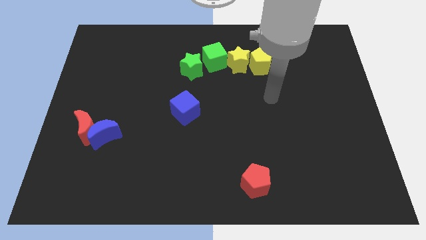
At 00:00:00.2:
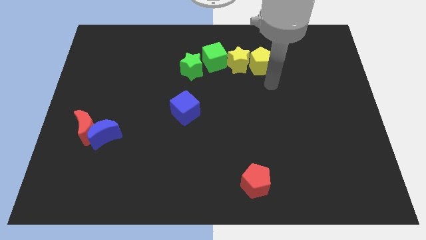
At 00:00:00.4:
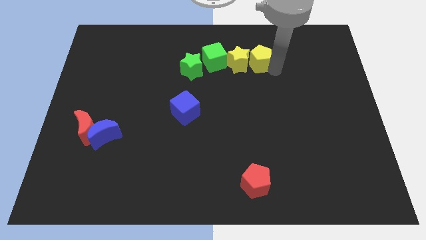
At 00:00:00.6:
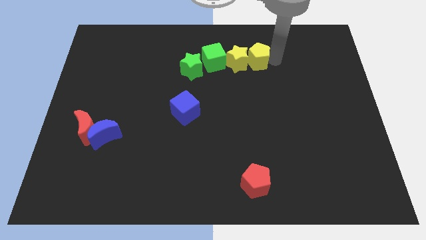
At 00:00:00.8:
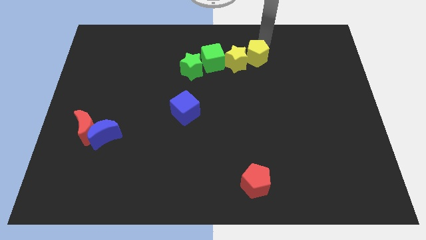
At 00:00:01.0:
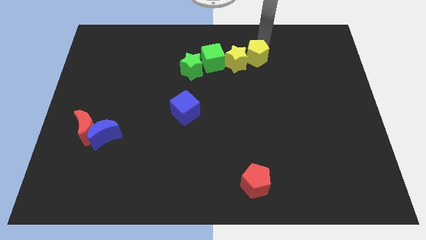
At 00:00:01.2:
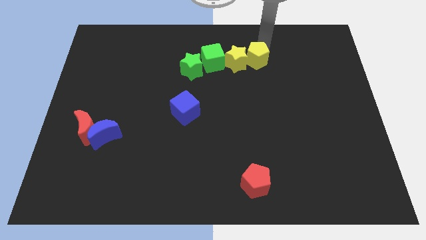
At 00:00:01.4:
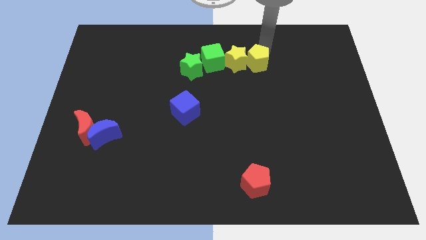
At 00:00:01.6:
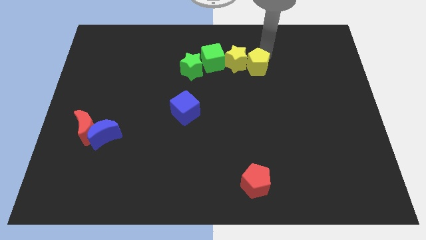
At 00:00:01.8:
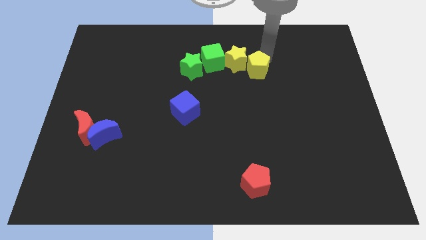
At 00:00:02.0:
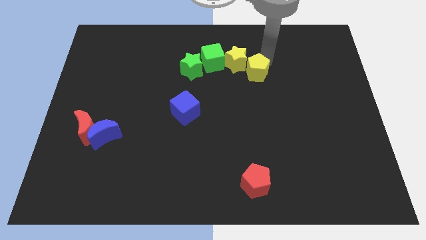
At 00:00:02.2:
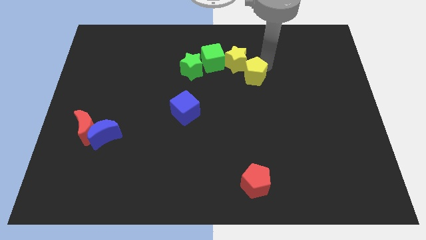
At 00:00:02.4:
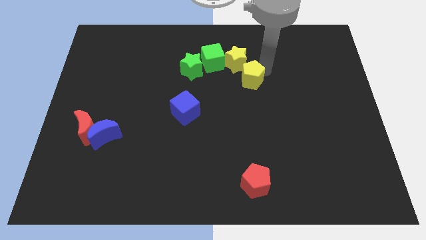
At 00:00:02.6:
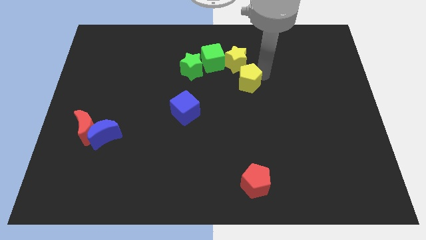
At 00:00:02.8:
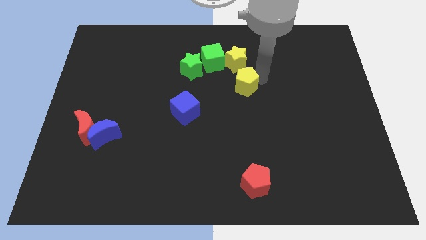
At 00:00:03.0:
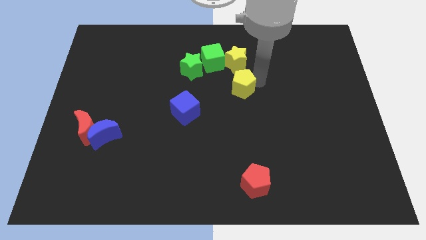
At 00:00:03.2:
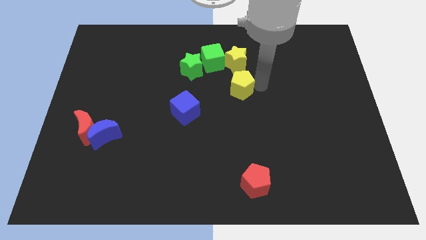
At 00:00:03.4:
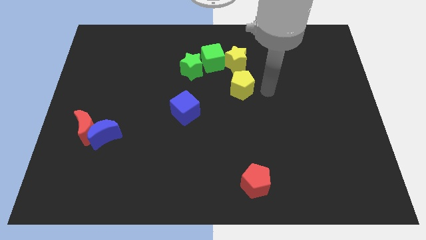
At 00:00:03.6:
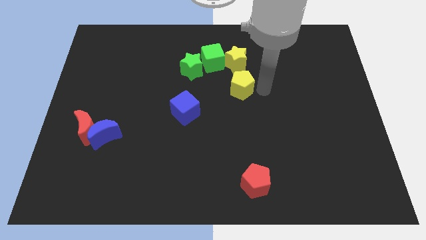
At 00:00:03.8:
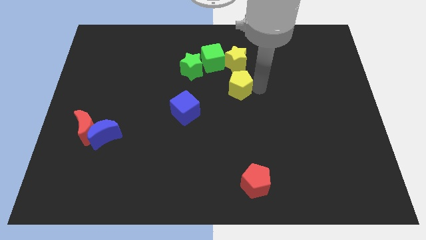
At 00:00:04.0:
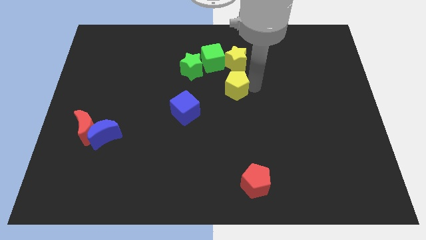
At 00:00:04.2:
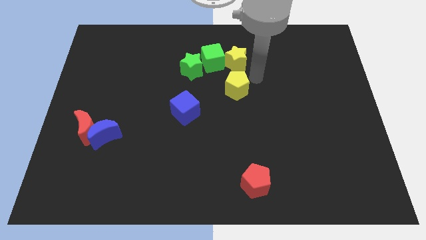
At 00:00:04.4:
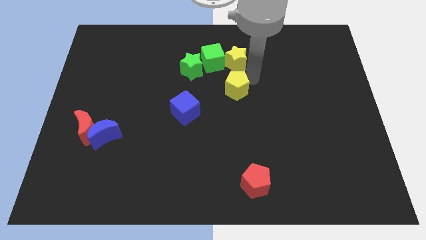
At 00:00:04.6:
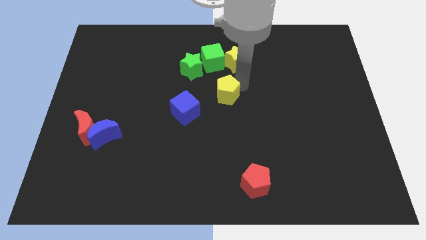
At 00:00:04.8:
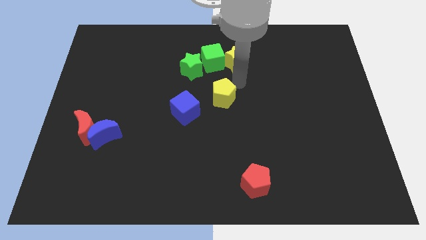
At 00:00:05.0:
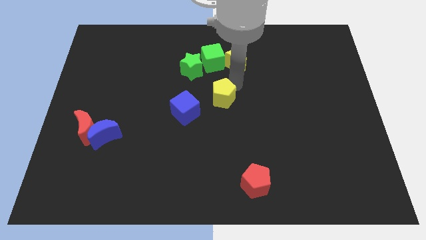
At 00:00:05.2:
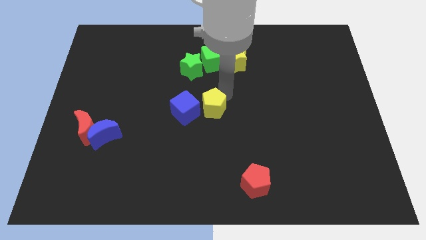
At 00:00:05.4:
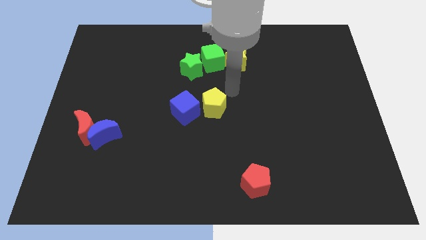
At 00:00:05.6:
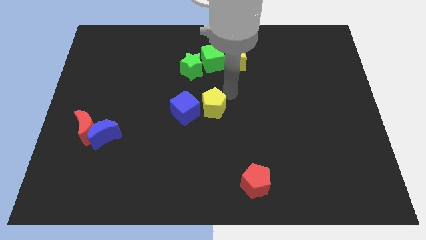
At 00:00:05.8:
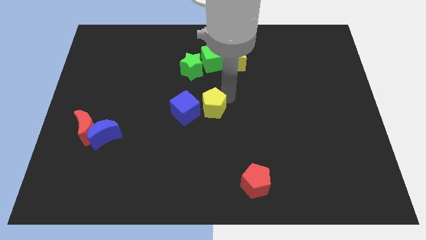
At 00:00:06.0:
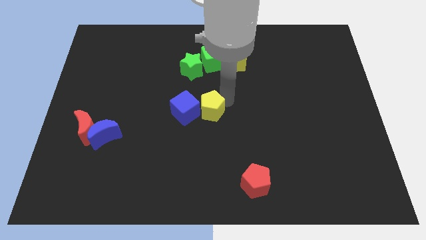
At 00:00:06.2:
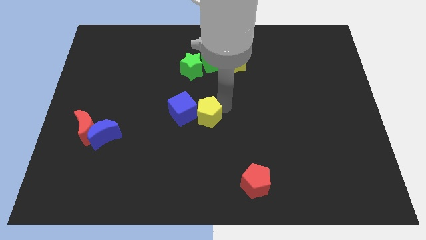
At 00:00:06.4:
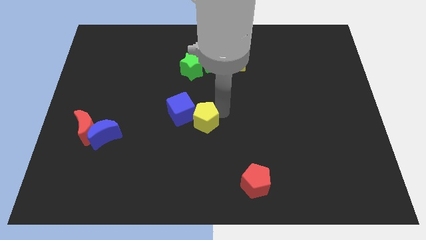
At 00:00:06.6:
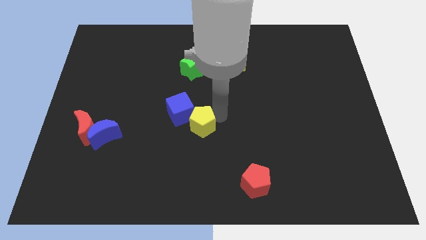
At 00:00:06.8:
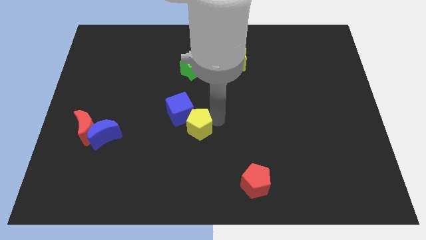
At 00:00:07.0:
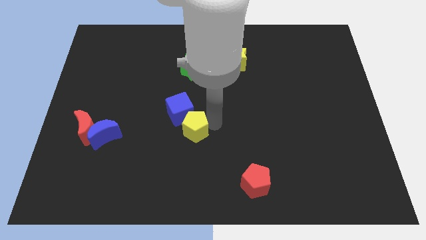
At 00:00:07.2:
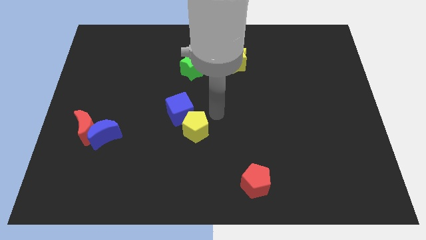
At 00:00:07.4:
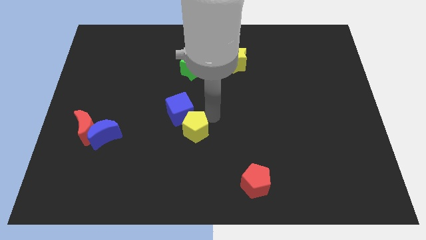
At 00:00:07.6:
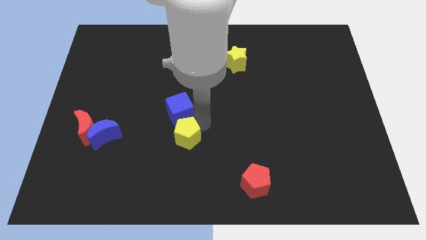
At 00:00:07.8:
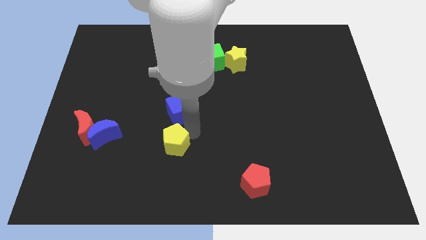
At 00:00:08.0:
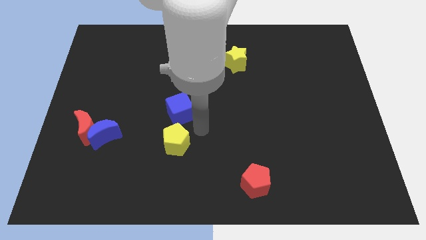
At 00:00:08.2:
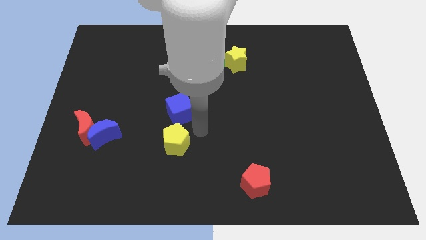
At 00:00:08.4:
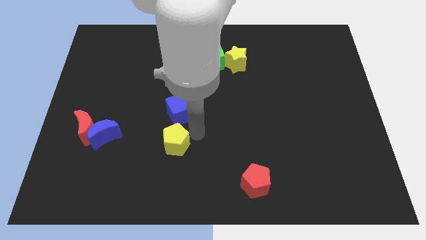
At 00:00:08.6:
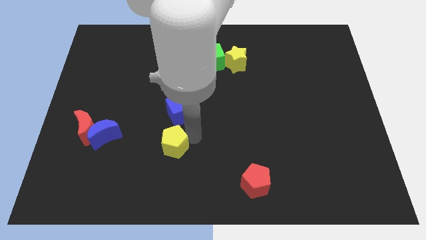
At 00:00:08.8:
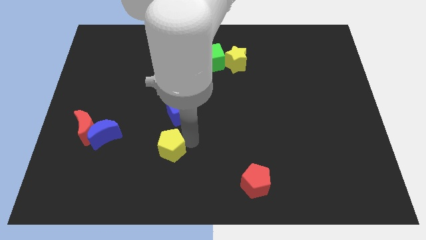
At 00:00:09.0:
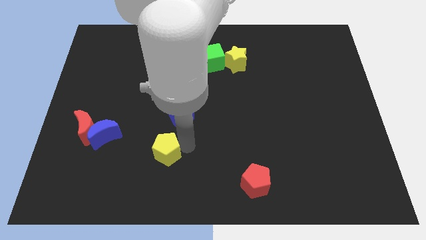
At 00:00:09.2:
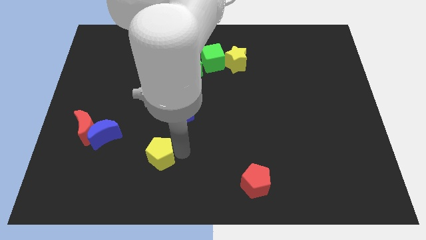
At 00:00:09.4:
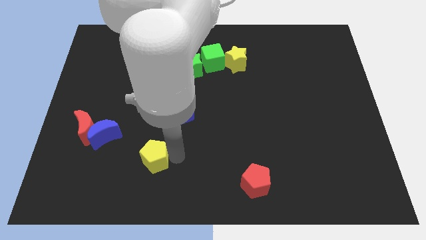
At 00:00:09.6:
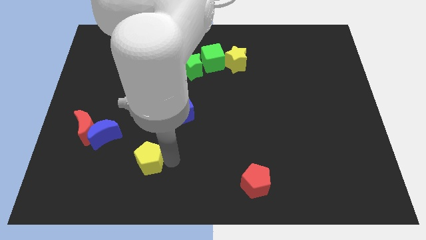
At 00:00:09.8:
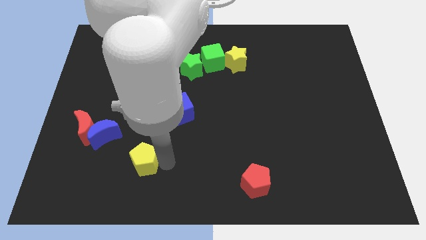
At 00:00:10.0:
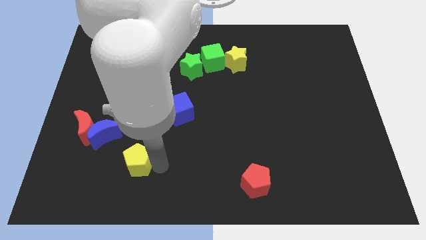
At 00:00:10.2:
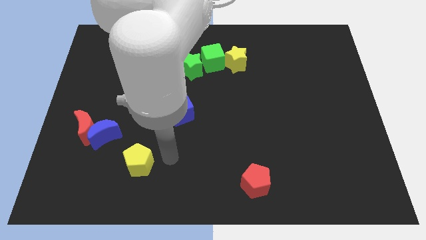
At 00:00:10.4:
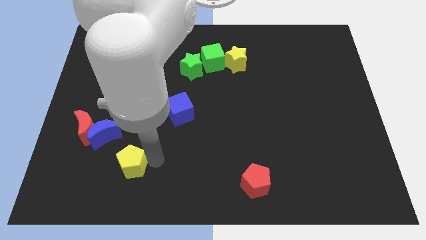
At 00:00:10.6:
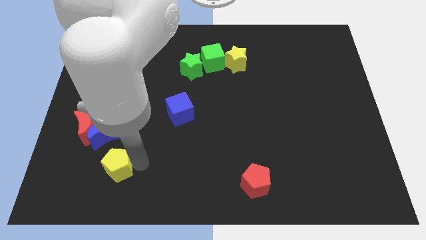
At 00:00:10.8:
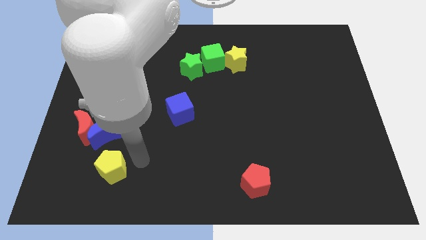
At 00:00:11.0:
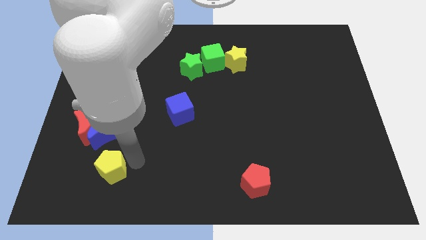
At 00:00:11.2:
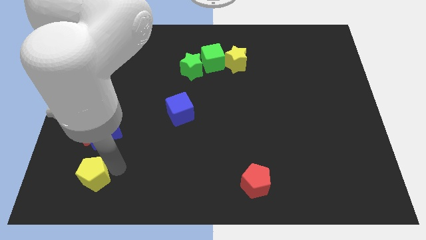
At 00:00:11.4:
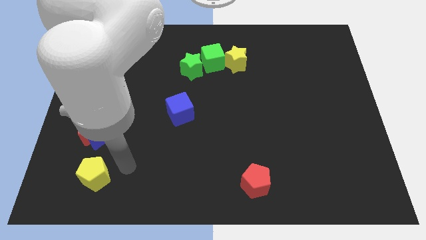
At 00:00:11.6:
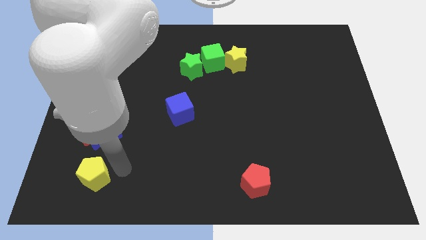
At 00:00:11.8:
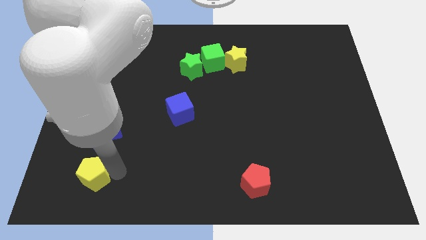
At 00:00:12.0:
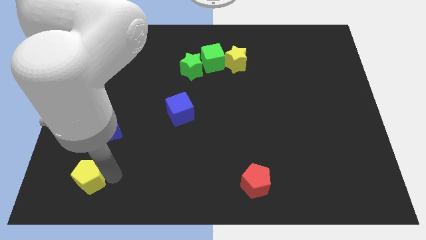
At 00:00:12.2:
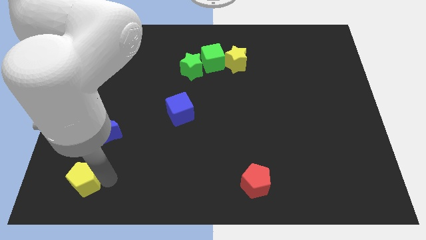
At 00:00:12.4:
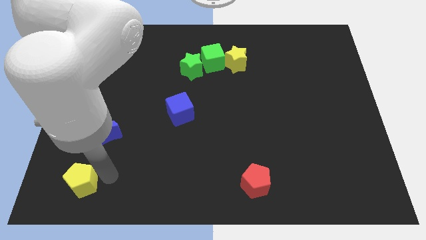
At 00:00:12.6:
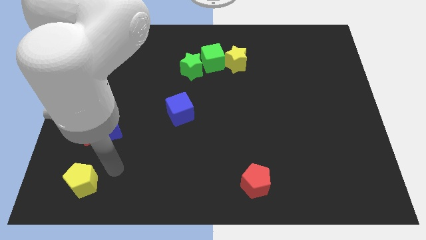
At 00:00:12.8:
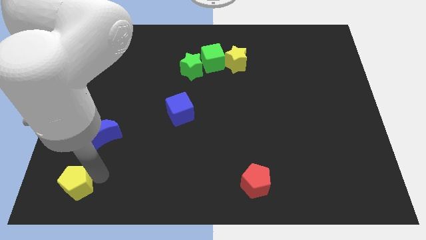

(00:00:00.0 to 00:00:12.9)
put the yellow pentagon to the bottom left of the board
